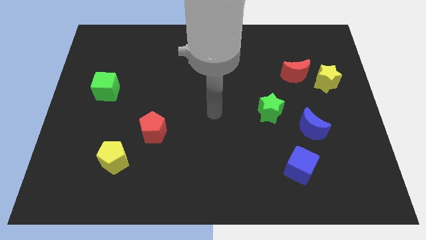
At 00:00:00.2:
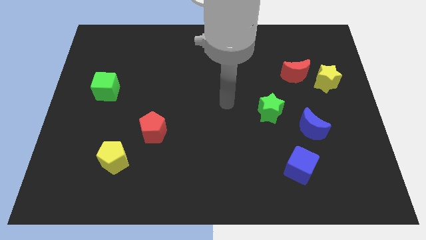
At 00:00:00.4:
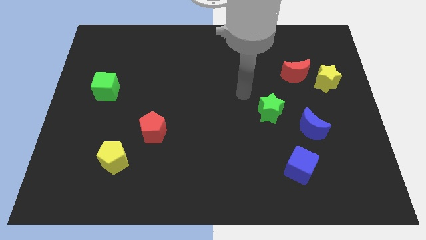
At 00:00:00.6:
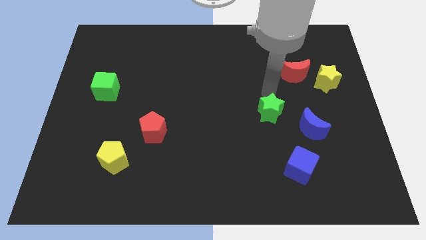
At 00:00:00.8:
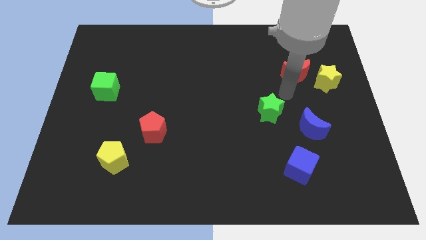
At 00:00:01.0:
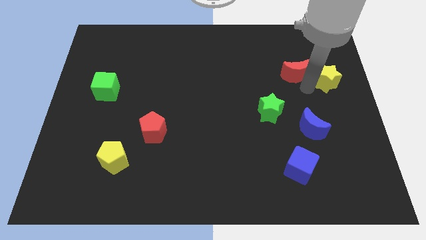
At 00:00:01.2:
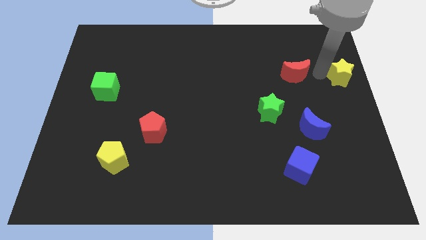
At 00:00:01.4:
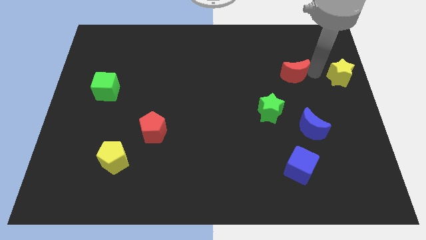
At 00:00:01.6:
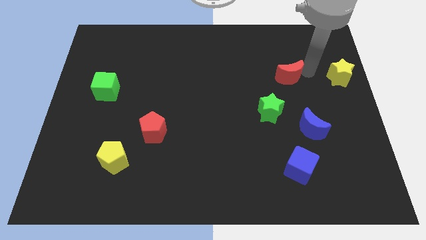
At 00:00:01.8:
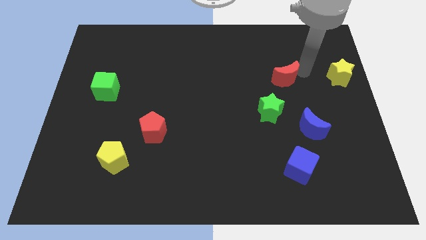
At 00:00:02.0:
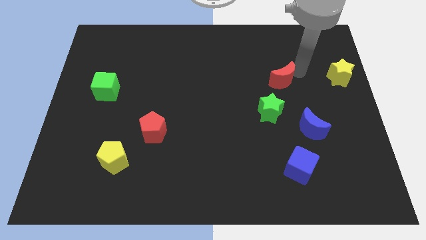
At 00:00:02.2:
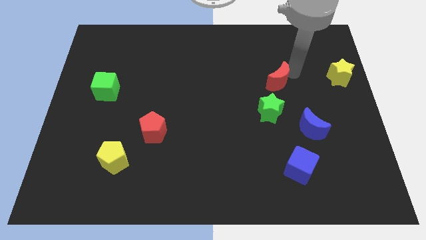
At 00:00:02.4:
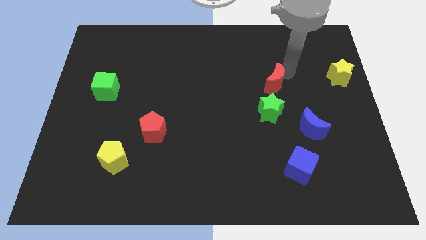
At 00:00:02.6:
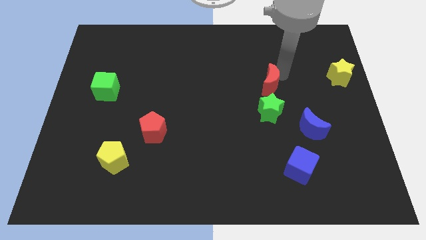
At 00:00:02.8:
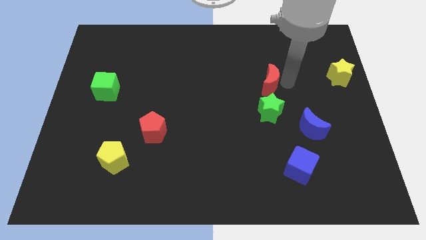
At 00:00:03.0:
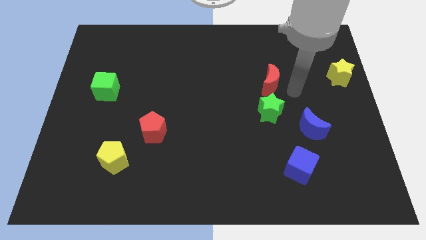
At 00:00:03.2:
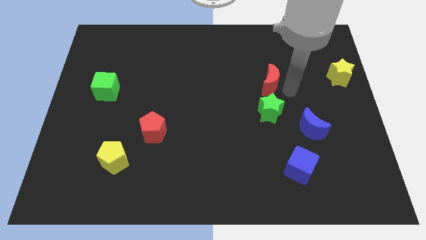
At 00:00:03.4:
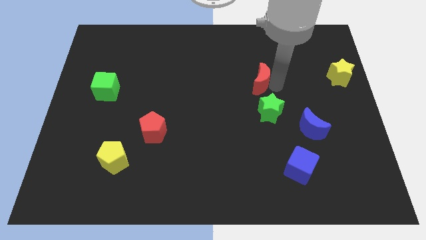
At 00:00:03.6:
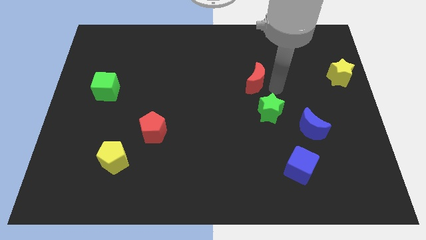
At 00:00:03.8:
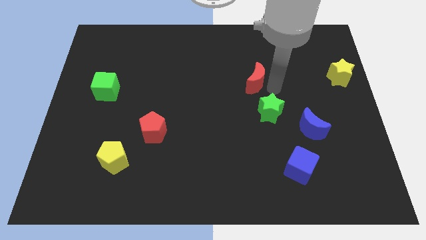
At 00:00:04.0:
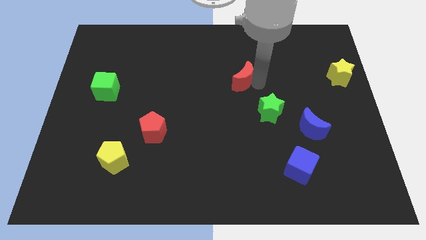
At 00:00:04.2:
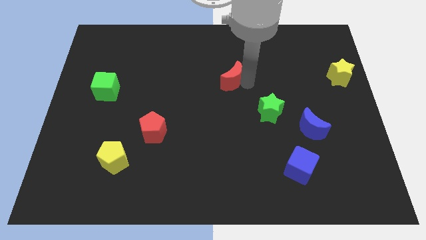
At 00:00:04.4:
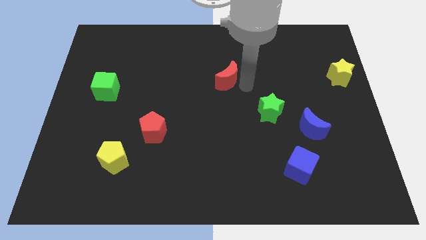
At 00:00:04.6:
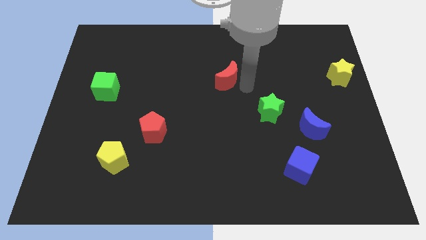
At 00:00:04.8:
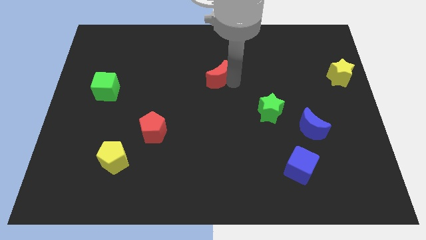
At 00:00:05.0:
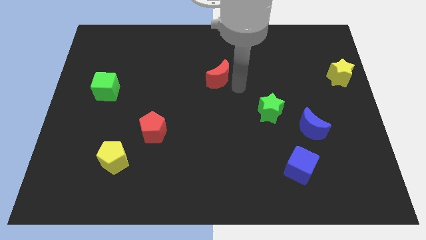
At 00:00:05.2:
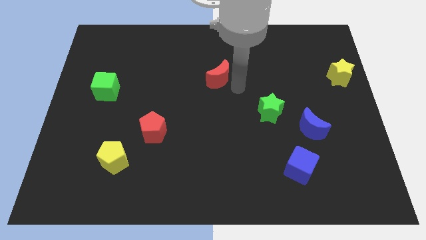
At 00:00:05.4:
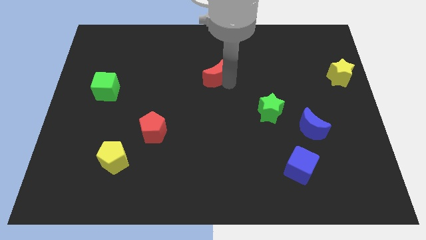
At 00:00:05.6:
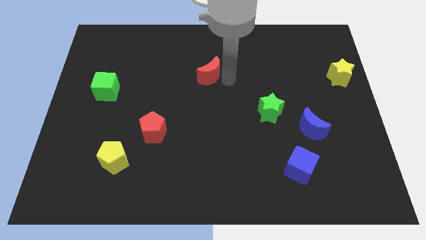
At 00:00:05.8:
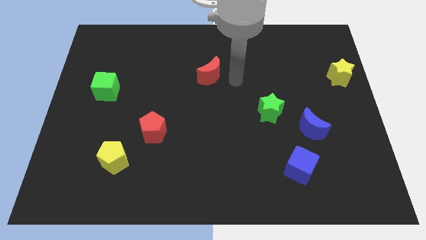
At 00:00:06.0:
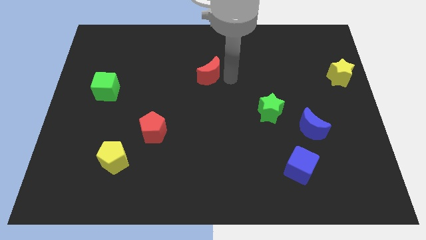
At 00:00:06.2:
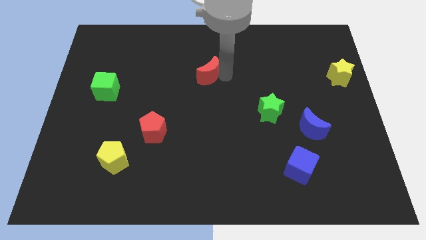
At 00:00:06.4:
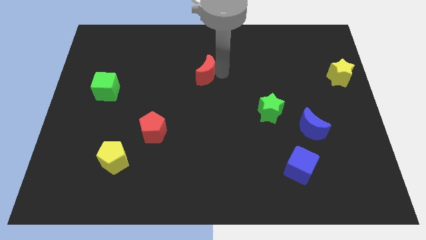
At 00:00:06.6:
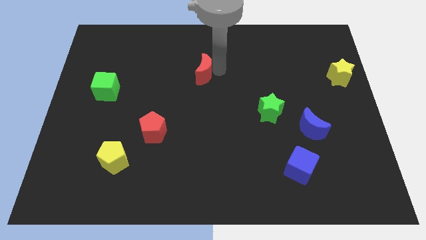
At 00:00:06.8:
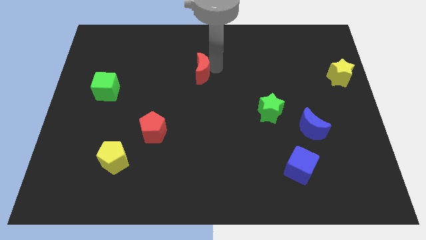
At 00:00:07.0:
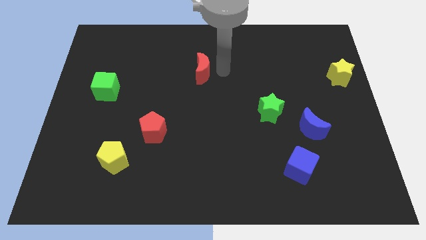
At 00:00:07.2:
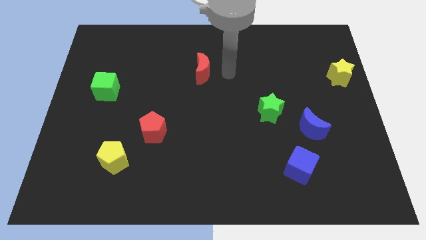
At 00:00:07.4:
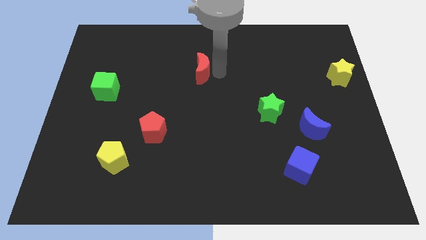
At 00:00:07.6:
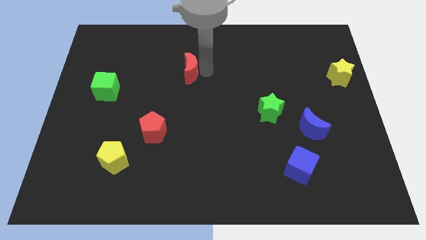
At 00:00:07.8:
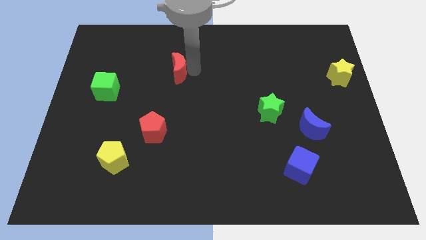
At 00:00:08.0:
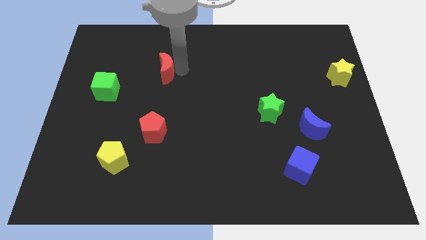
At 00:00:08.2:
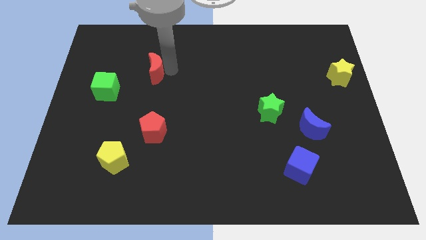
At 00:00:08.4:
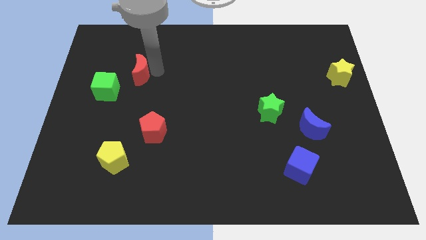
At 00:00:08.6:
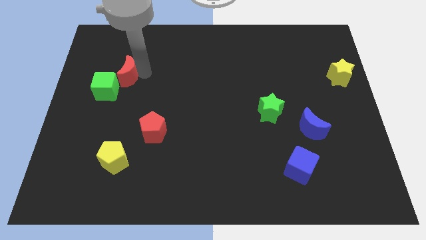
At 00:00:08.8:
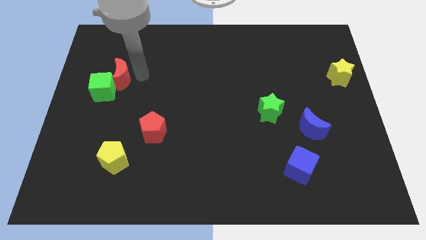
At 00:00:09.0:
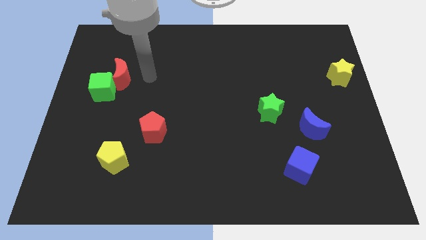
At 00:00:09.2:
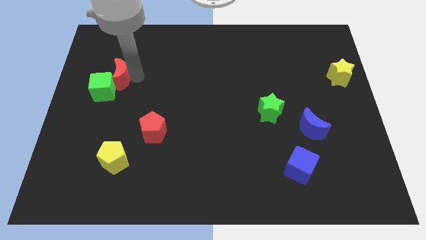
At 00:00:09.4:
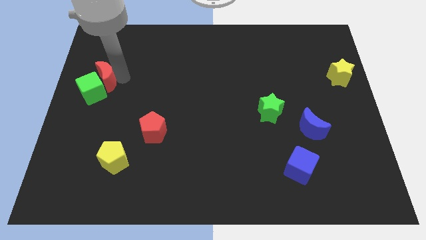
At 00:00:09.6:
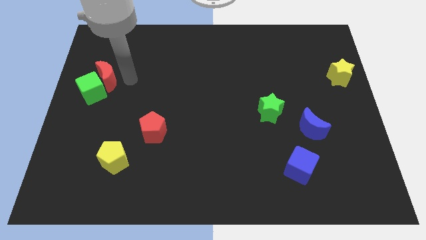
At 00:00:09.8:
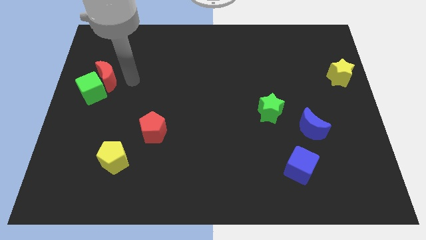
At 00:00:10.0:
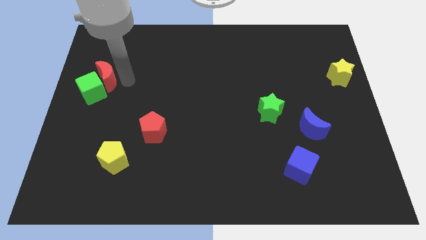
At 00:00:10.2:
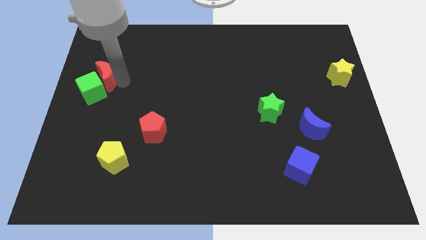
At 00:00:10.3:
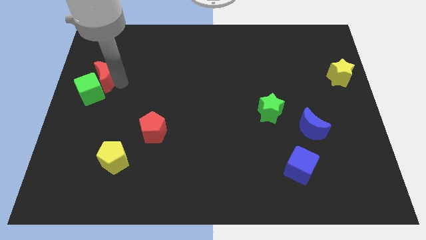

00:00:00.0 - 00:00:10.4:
move the red moon to the left side of the board
